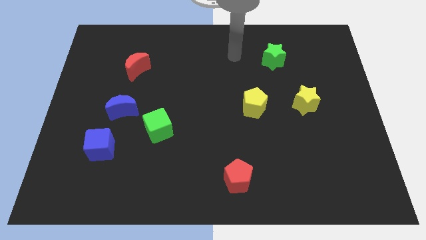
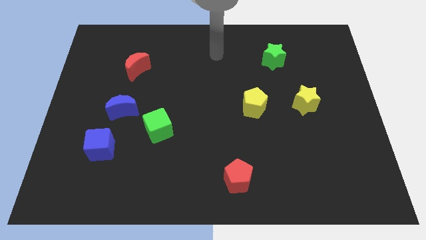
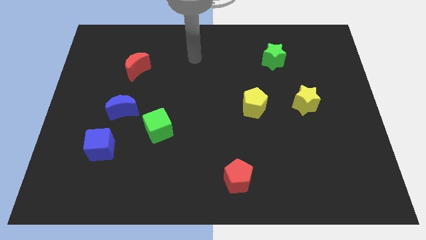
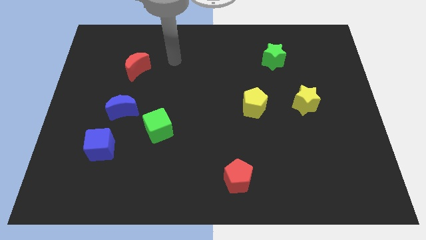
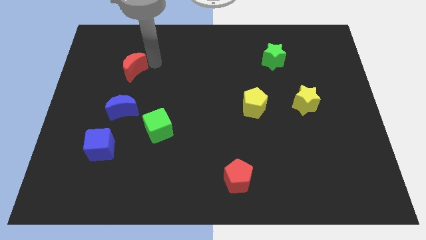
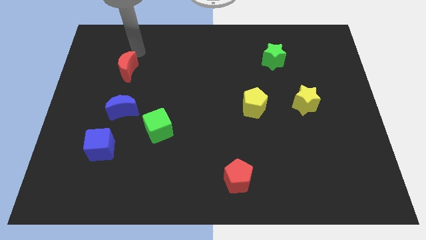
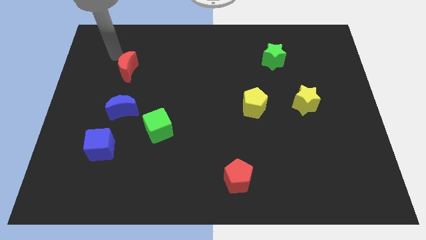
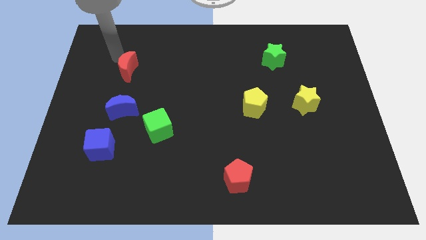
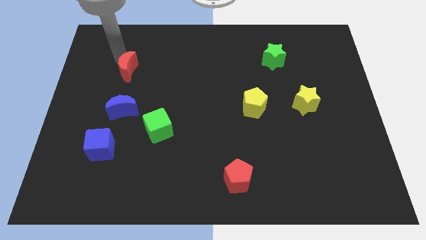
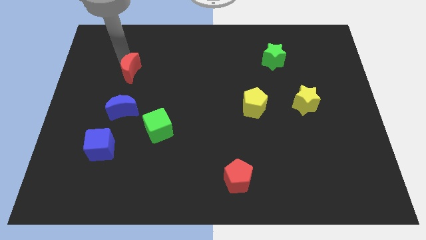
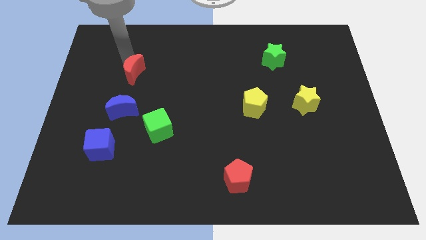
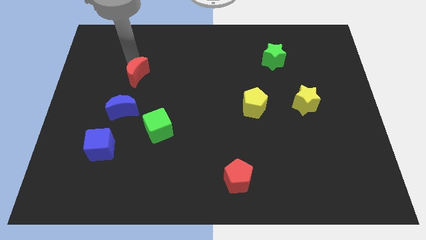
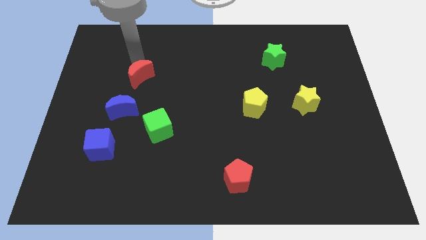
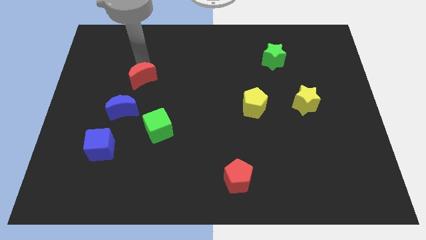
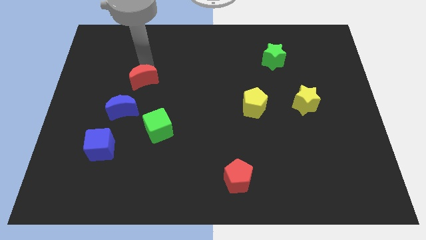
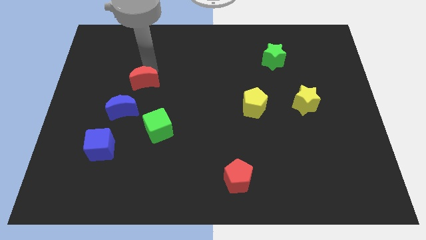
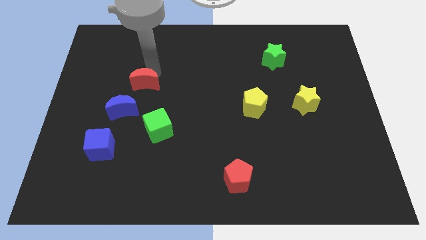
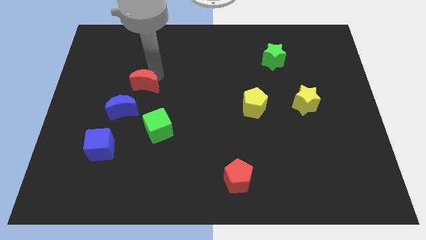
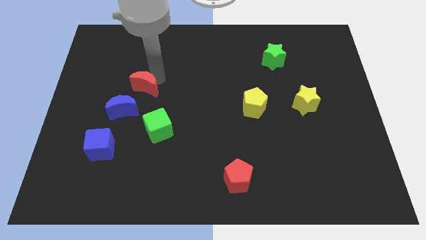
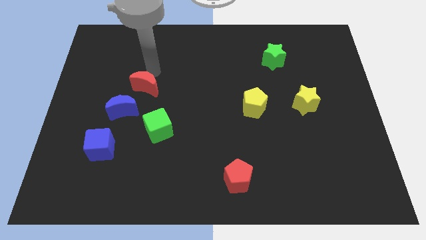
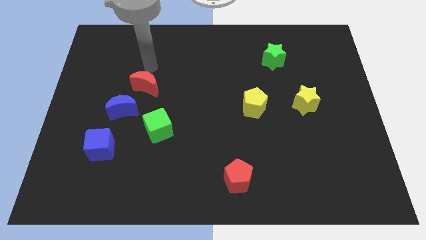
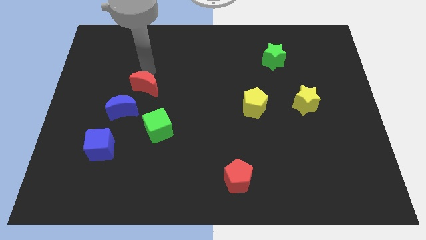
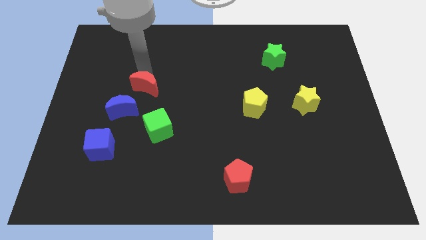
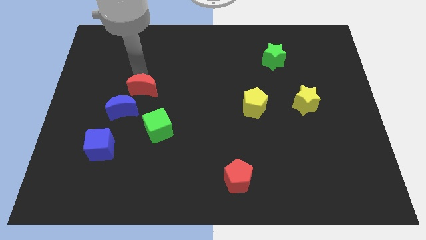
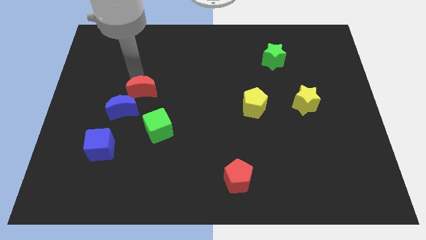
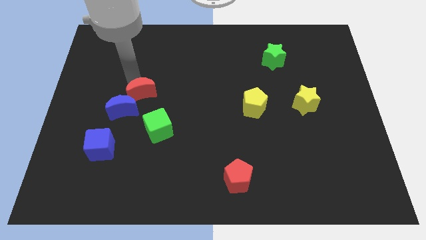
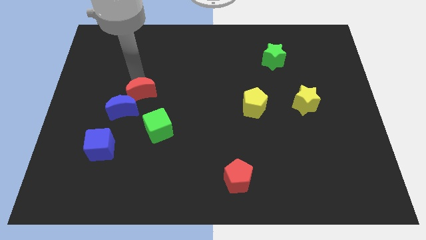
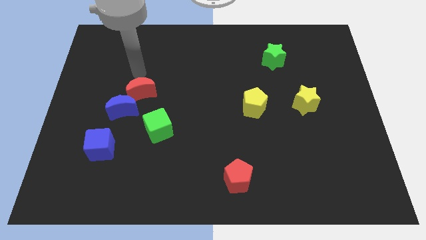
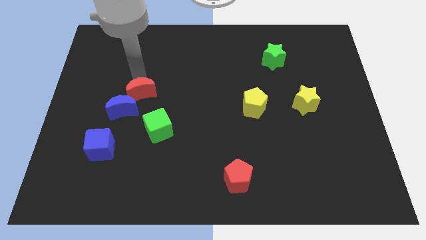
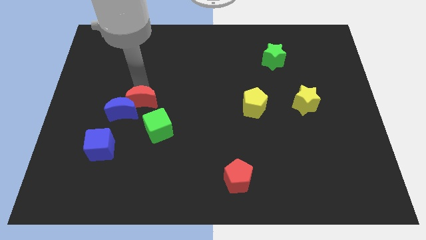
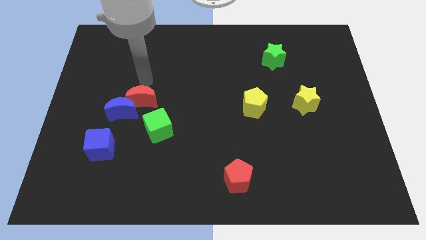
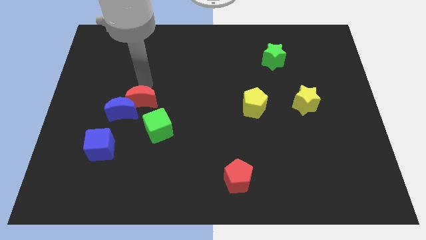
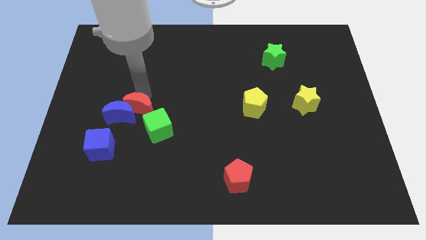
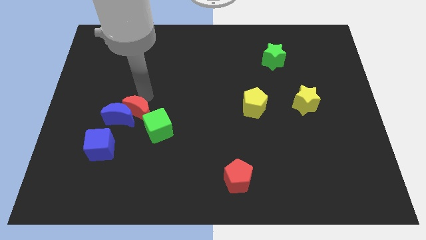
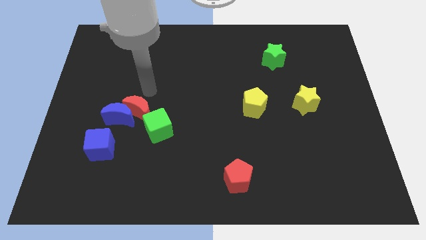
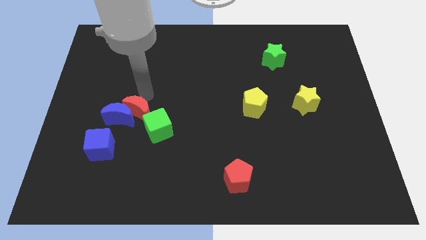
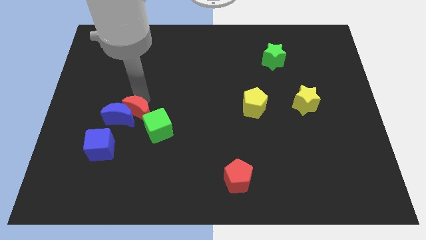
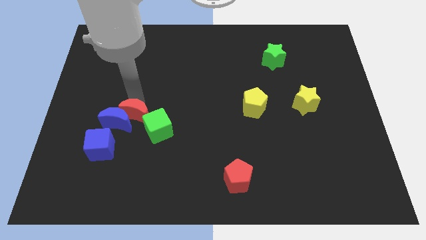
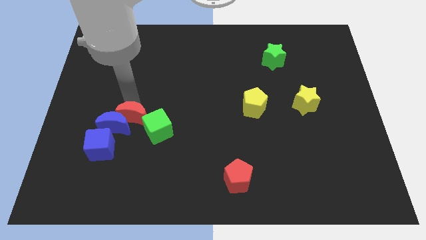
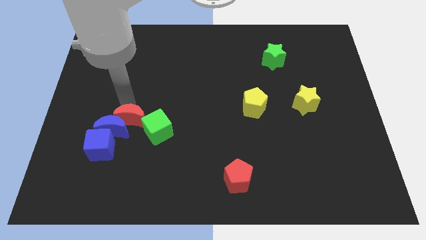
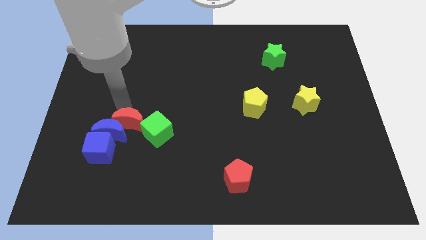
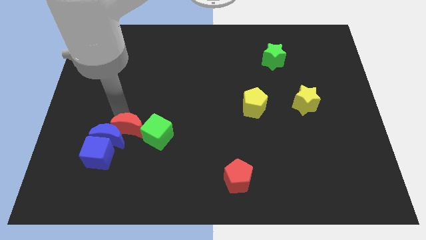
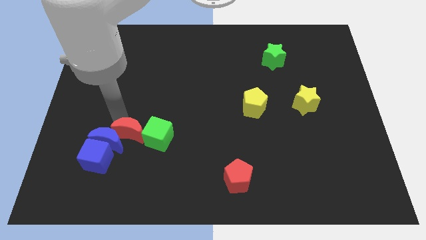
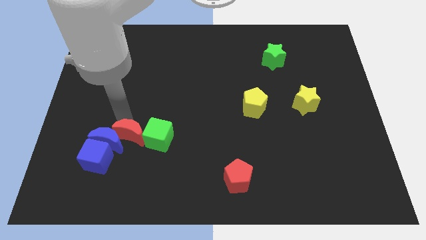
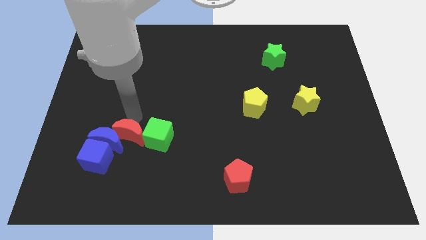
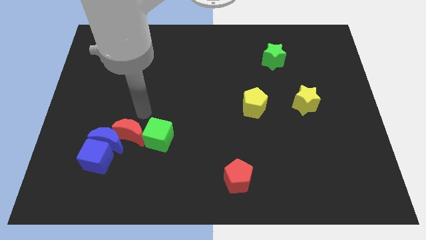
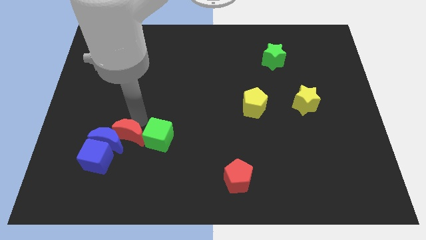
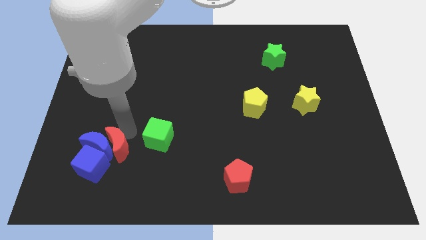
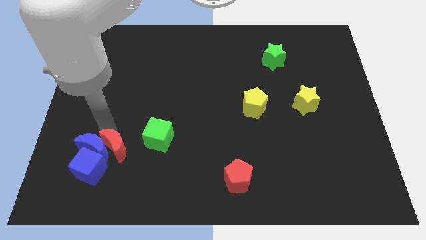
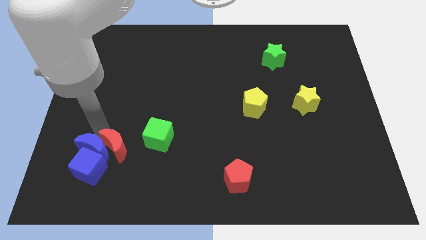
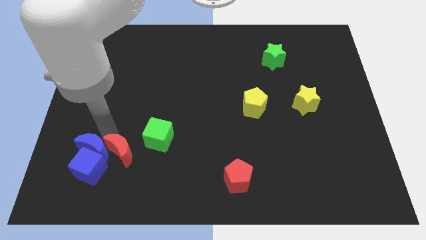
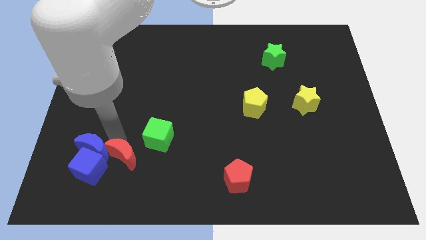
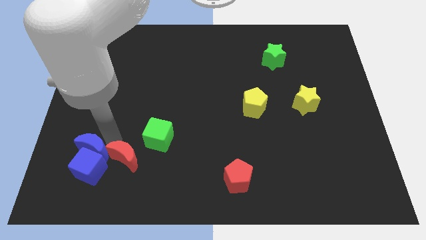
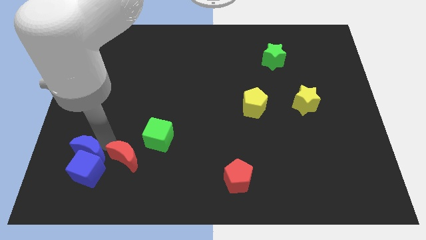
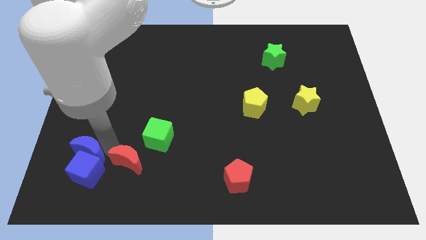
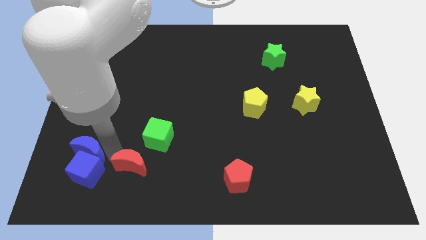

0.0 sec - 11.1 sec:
push the red moon to the bottom of the green cube
